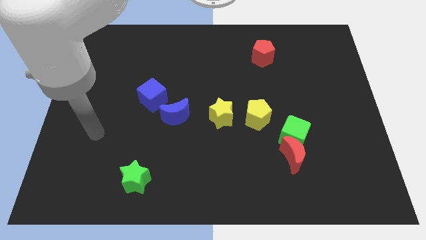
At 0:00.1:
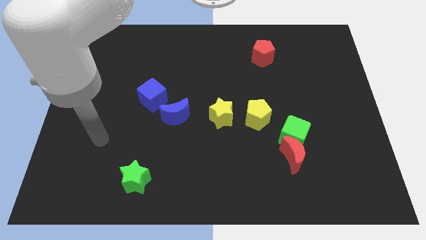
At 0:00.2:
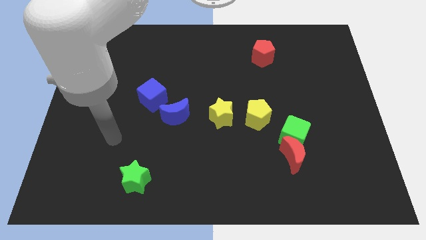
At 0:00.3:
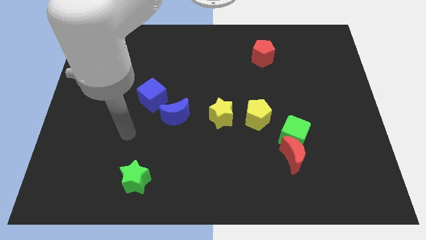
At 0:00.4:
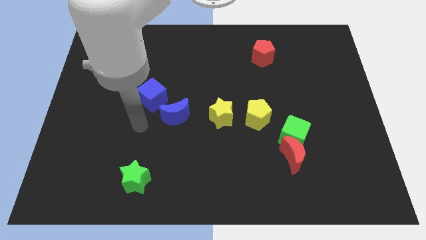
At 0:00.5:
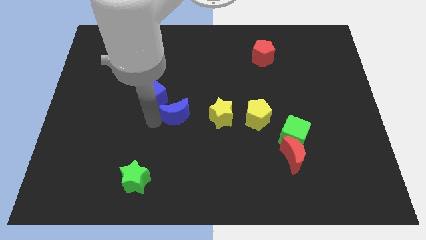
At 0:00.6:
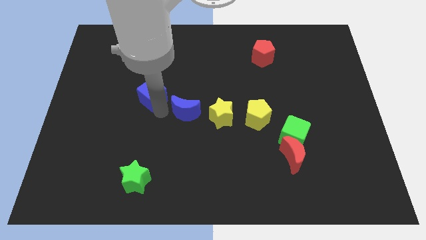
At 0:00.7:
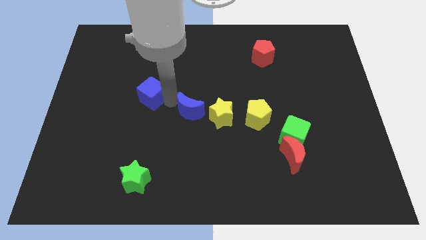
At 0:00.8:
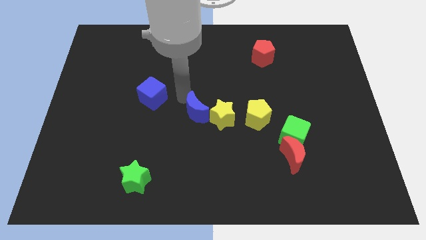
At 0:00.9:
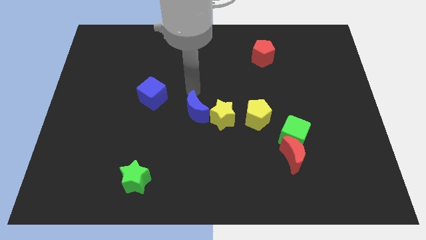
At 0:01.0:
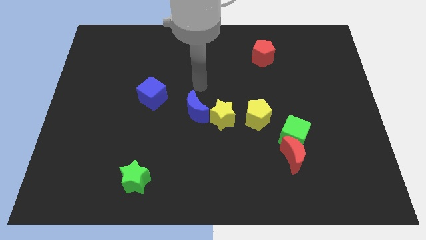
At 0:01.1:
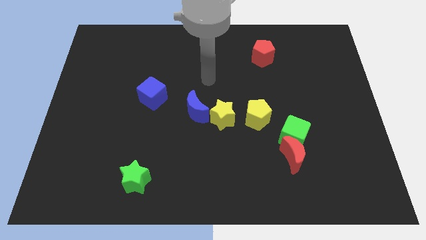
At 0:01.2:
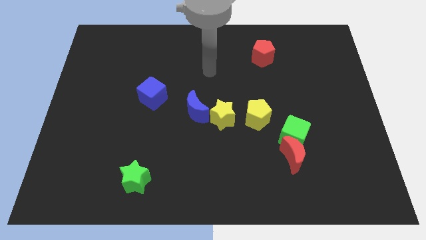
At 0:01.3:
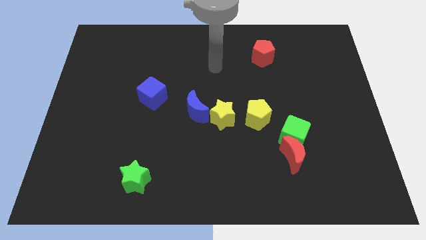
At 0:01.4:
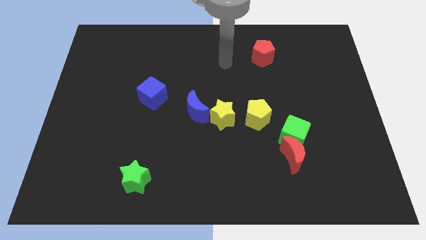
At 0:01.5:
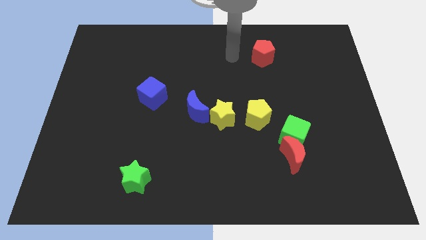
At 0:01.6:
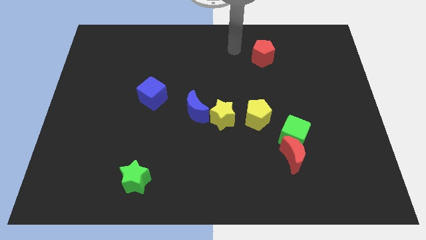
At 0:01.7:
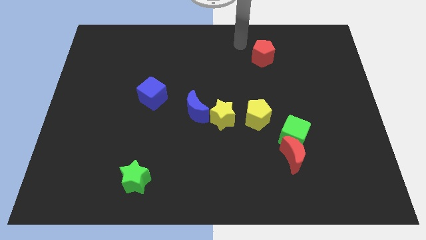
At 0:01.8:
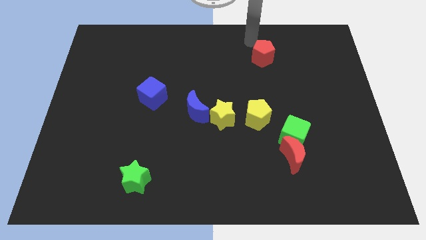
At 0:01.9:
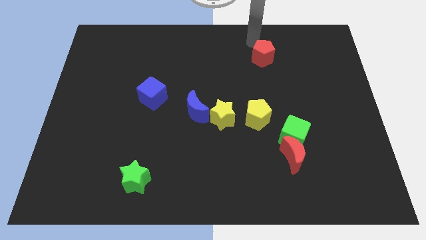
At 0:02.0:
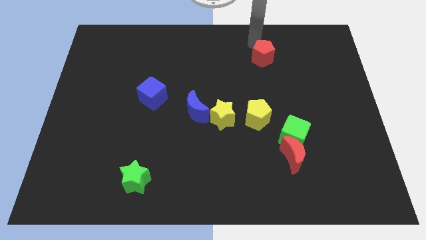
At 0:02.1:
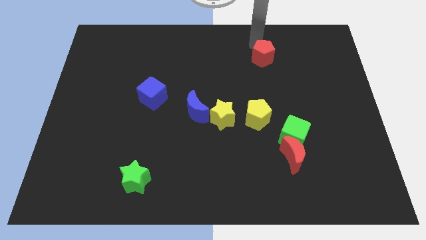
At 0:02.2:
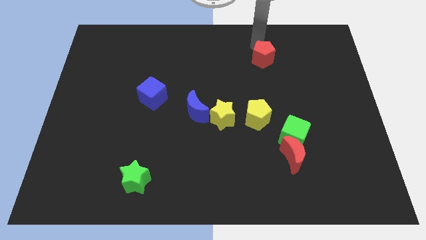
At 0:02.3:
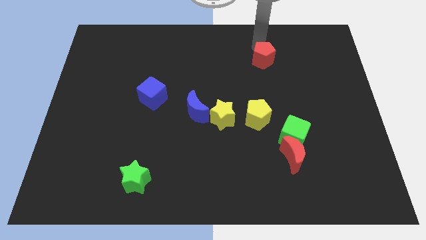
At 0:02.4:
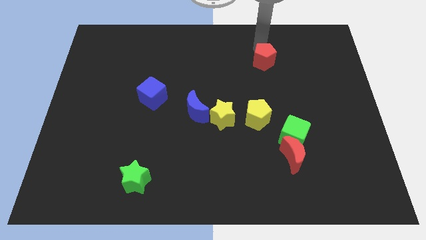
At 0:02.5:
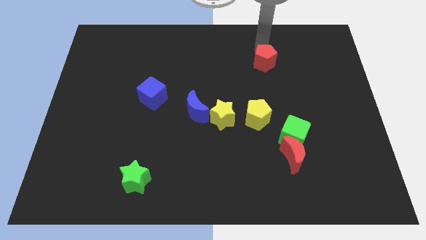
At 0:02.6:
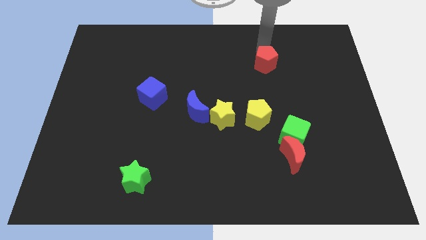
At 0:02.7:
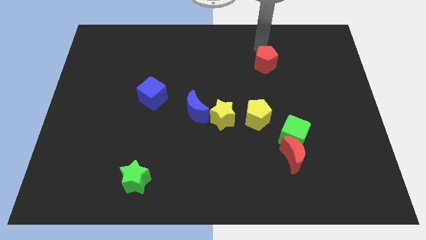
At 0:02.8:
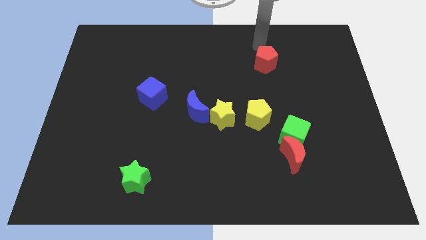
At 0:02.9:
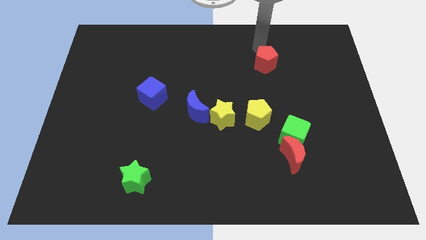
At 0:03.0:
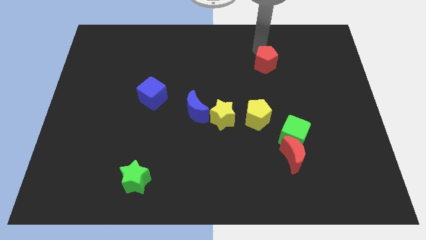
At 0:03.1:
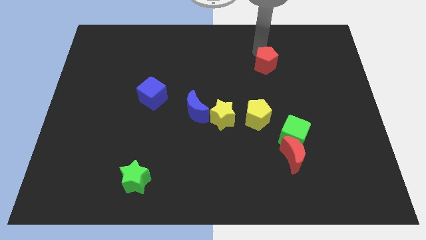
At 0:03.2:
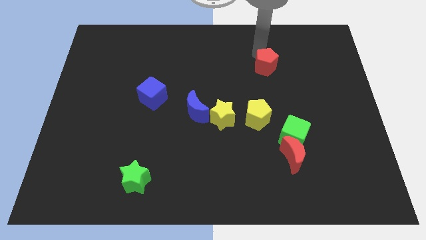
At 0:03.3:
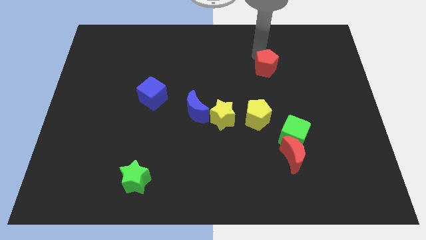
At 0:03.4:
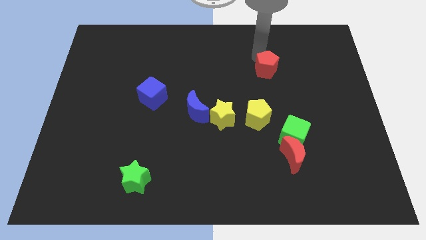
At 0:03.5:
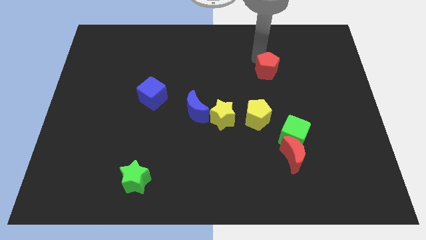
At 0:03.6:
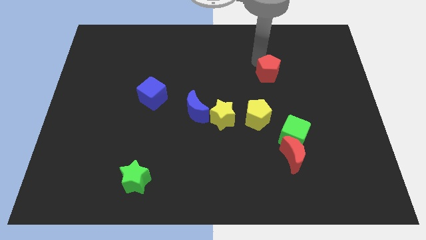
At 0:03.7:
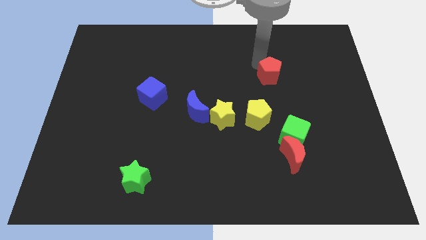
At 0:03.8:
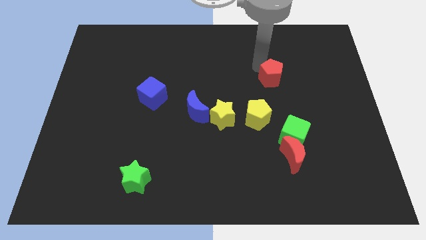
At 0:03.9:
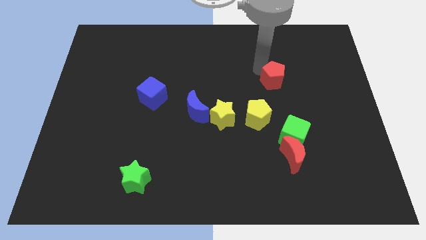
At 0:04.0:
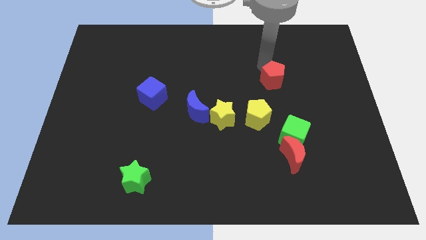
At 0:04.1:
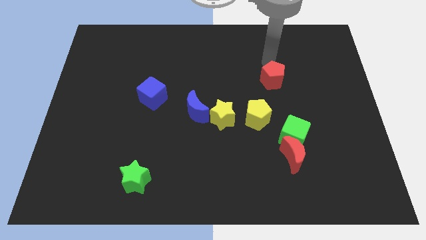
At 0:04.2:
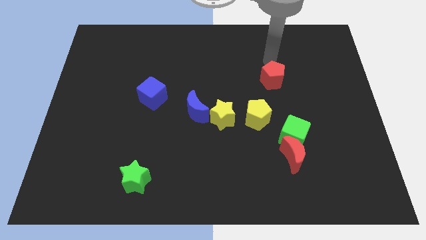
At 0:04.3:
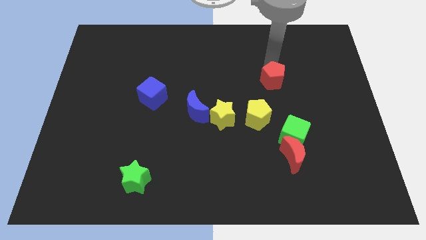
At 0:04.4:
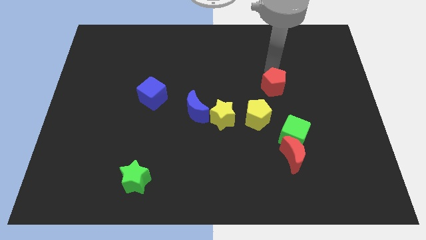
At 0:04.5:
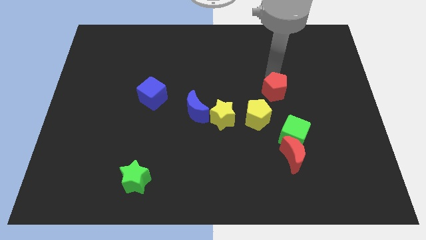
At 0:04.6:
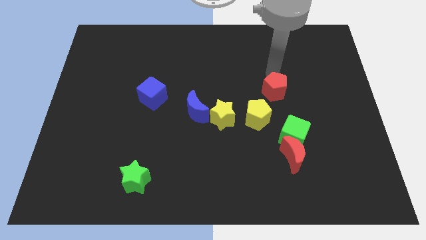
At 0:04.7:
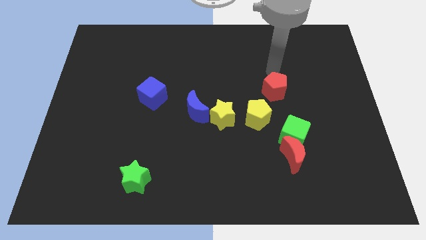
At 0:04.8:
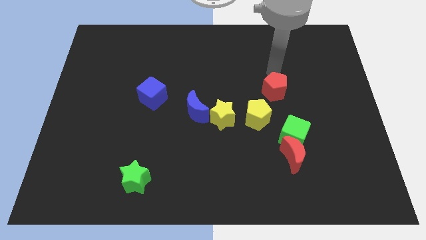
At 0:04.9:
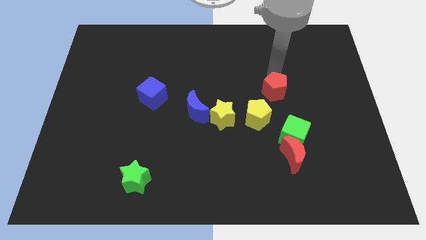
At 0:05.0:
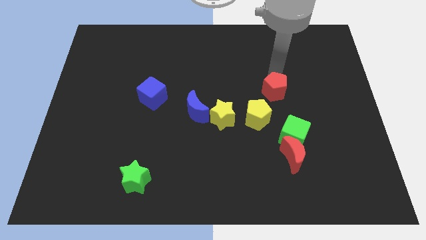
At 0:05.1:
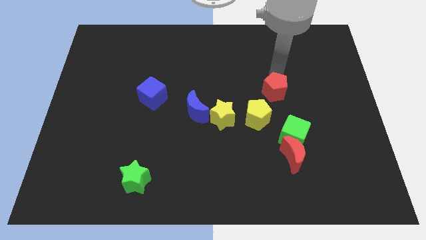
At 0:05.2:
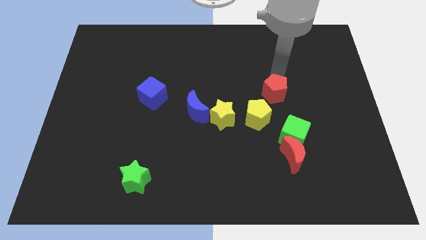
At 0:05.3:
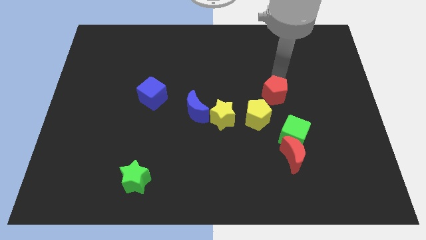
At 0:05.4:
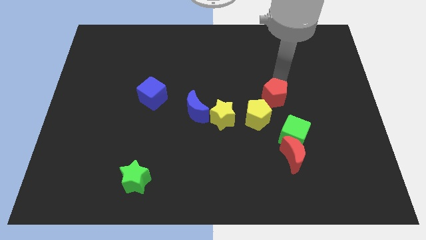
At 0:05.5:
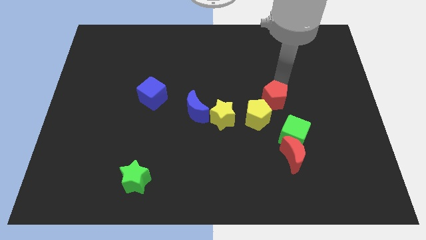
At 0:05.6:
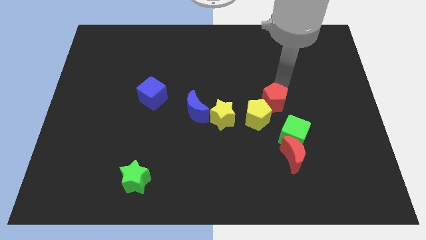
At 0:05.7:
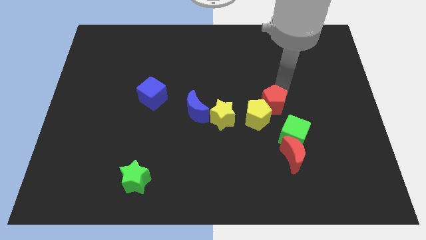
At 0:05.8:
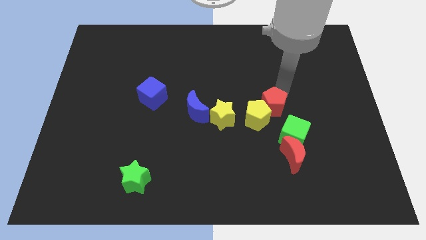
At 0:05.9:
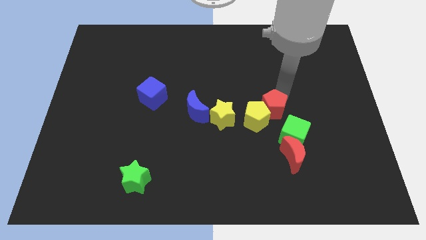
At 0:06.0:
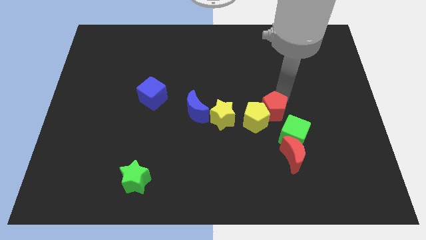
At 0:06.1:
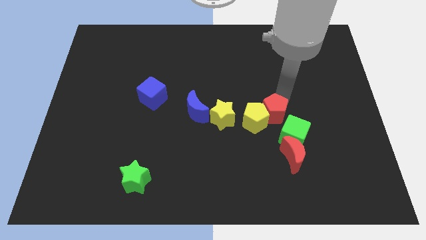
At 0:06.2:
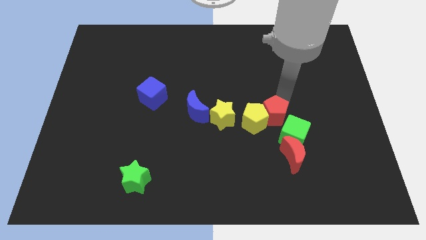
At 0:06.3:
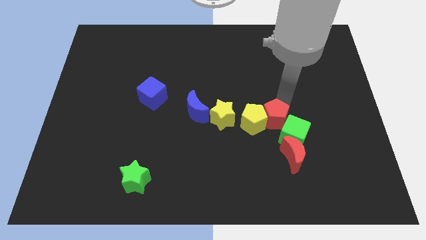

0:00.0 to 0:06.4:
slide the red pentagon down

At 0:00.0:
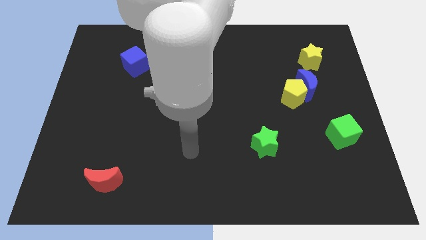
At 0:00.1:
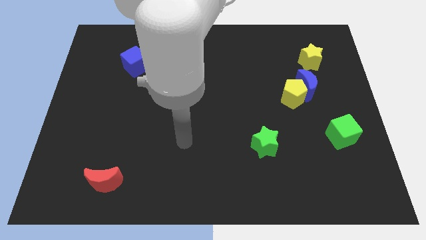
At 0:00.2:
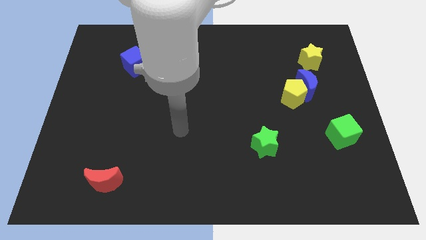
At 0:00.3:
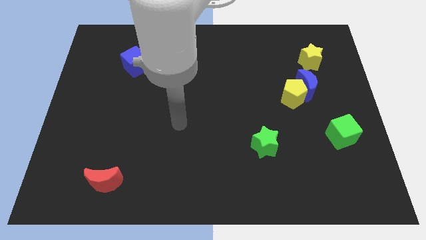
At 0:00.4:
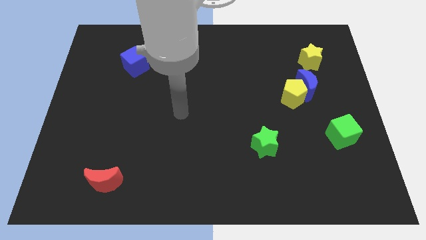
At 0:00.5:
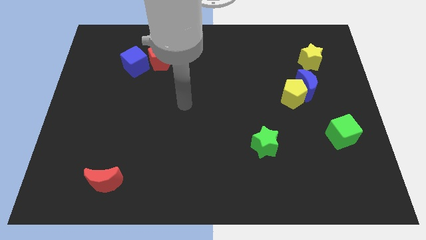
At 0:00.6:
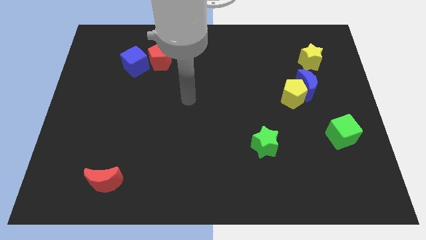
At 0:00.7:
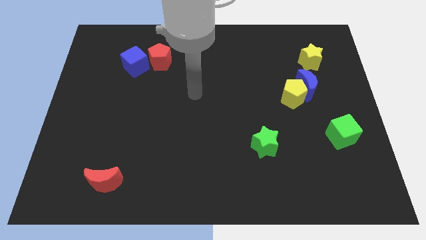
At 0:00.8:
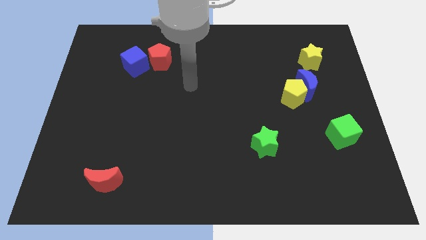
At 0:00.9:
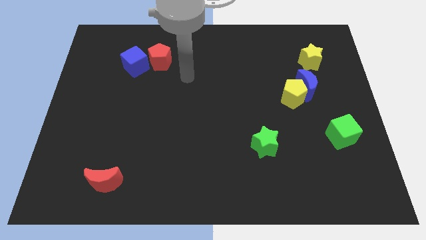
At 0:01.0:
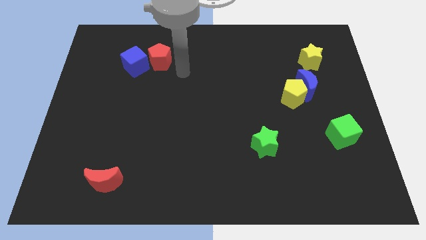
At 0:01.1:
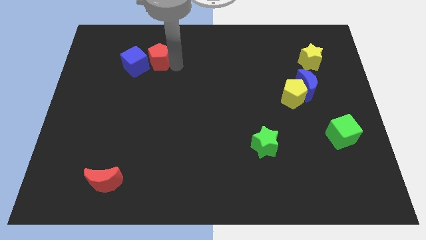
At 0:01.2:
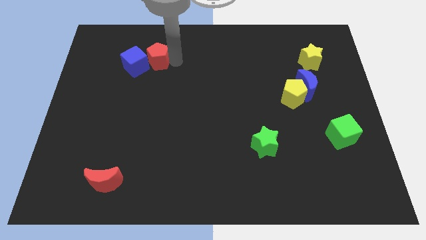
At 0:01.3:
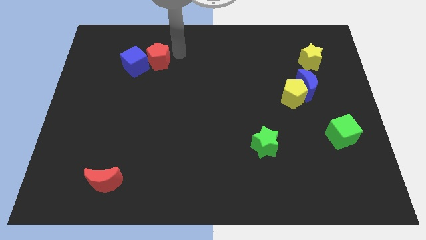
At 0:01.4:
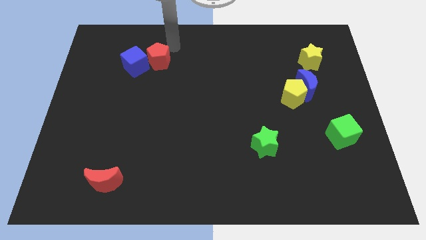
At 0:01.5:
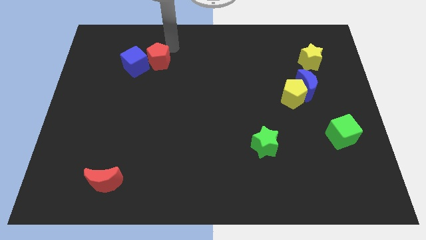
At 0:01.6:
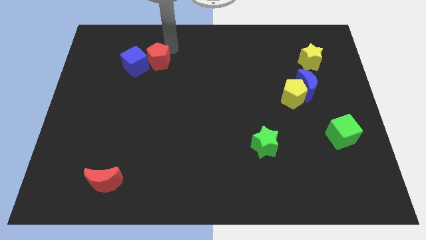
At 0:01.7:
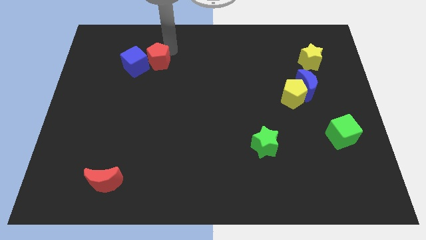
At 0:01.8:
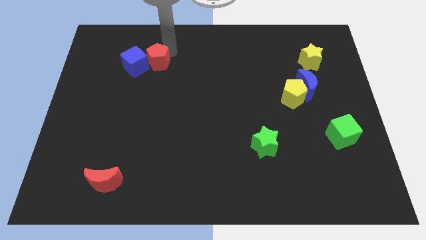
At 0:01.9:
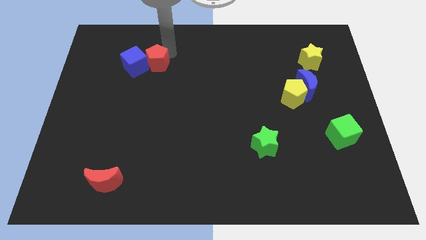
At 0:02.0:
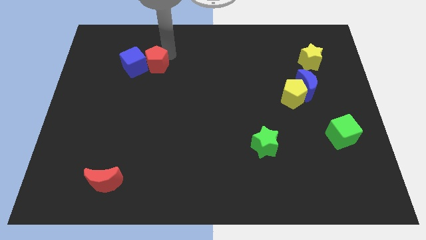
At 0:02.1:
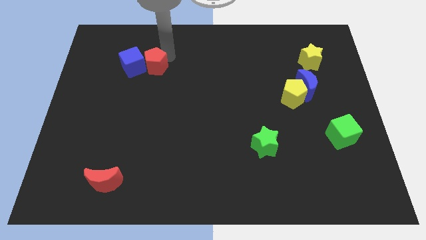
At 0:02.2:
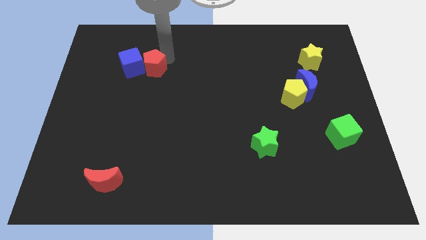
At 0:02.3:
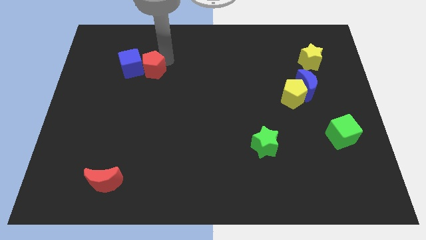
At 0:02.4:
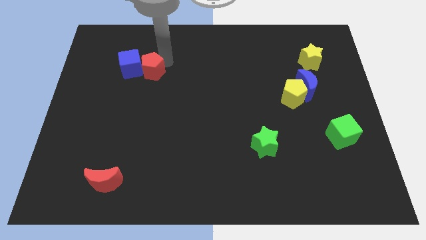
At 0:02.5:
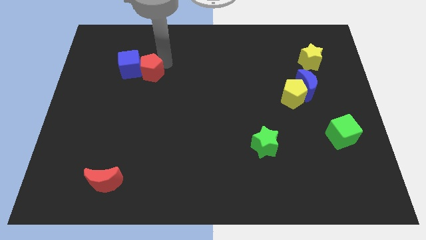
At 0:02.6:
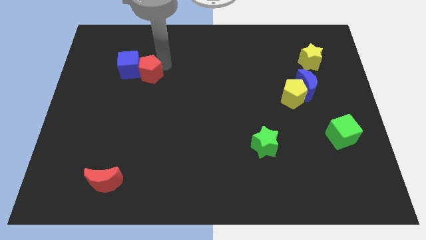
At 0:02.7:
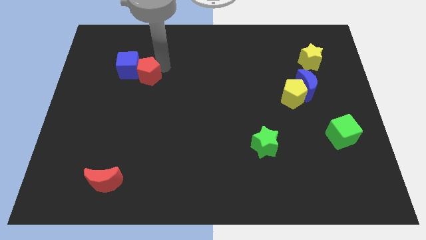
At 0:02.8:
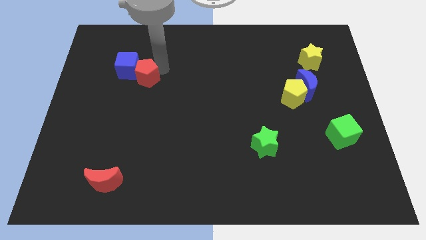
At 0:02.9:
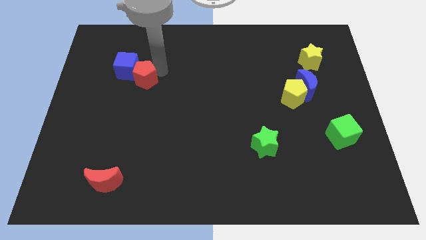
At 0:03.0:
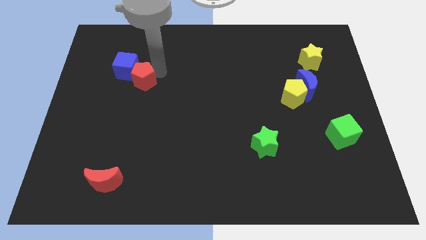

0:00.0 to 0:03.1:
push the red pentagon a bit downwards and then left
